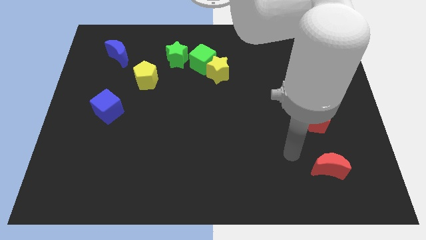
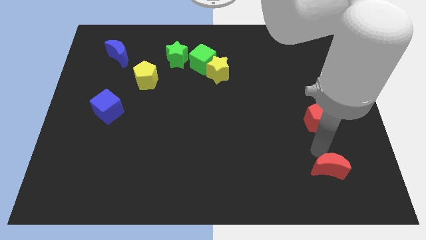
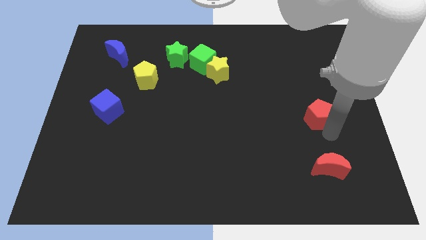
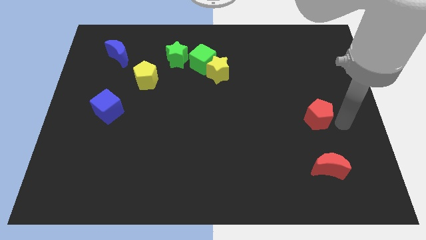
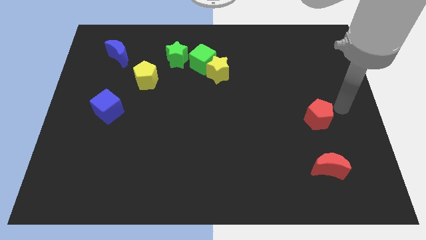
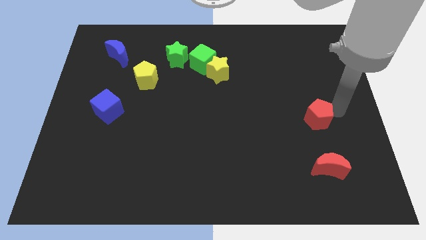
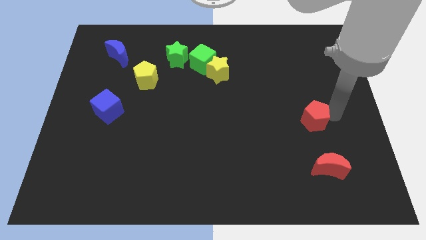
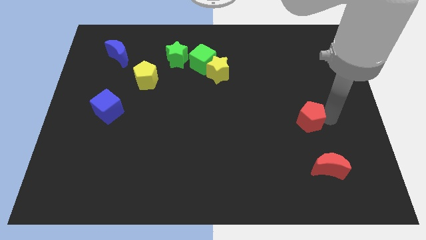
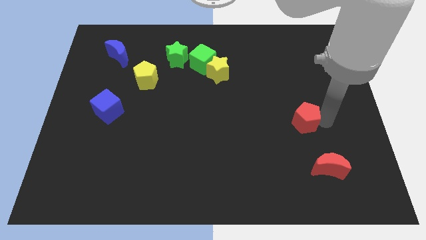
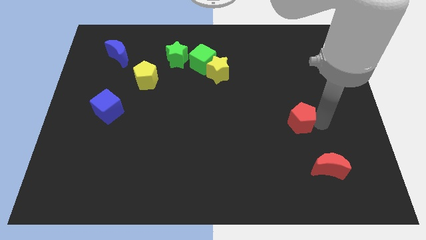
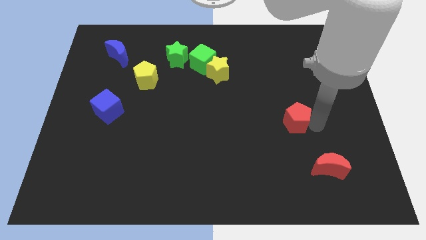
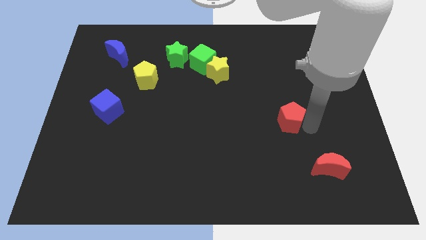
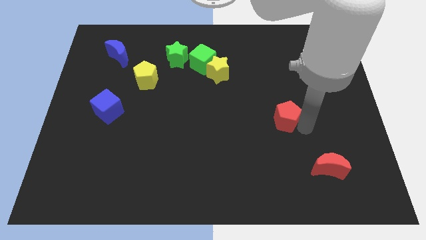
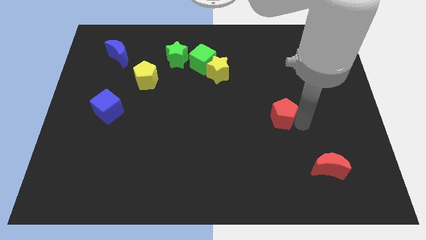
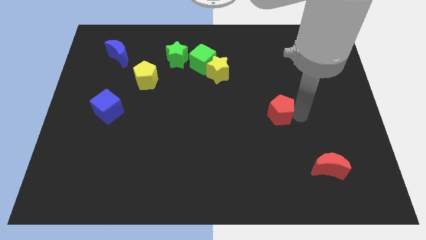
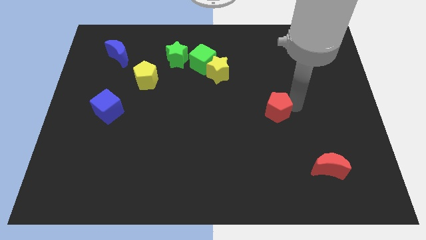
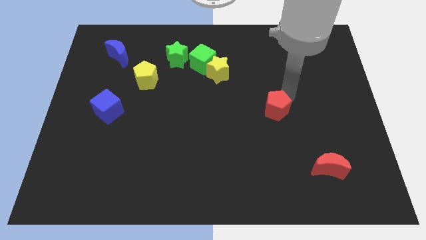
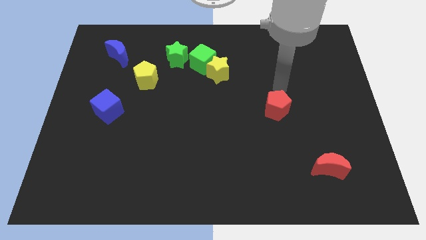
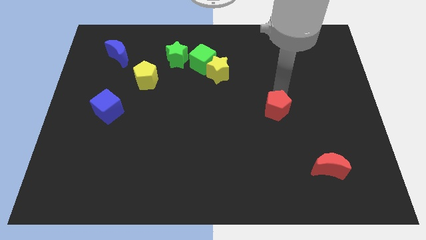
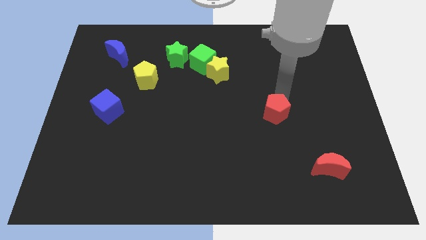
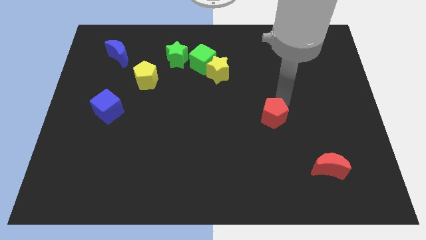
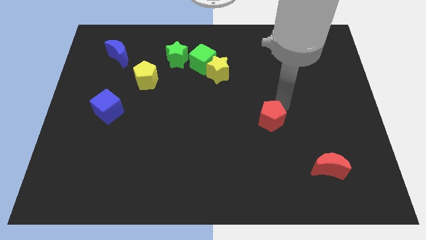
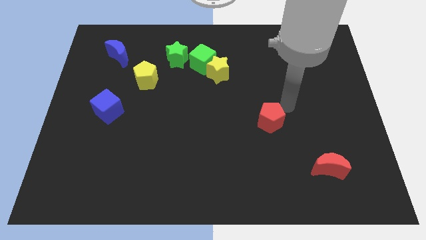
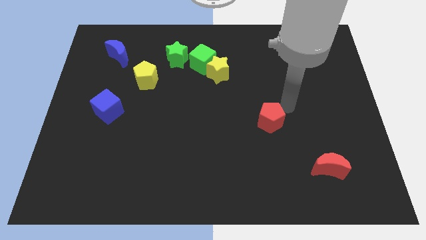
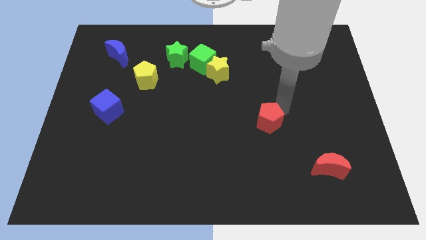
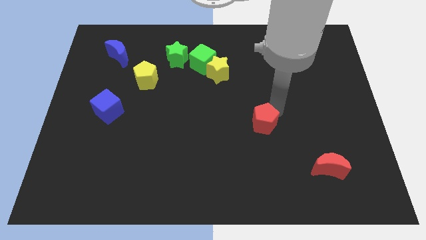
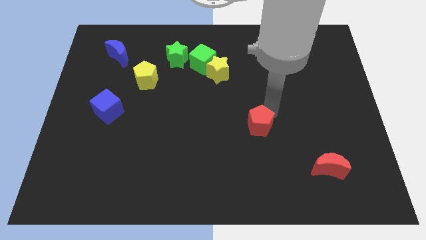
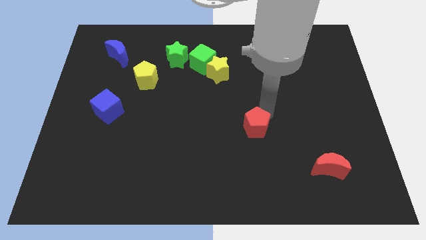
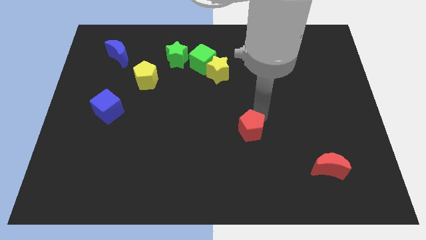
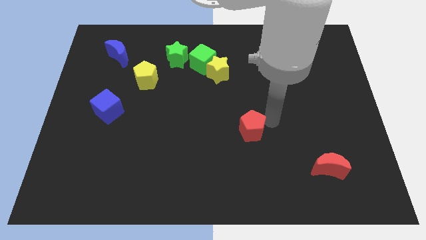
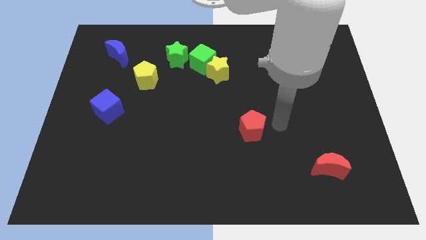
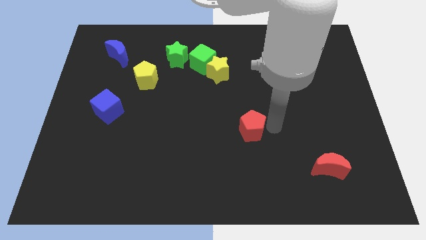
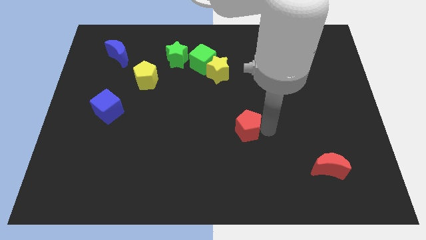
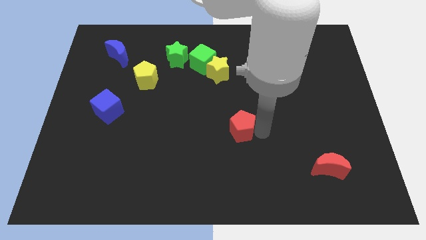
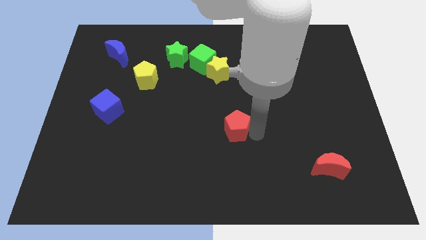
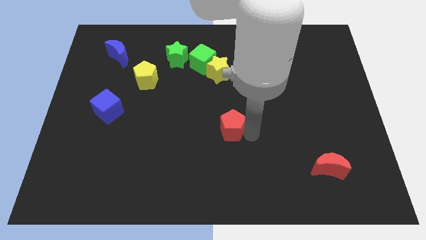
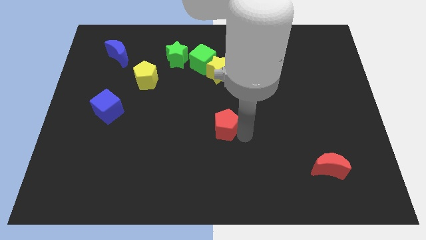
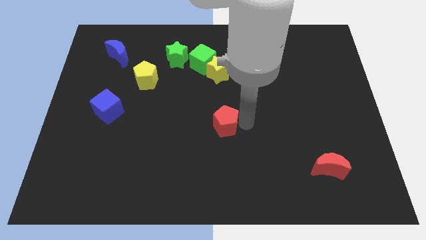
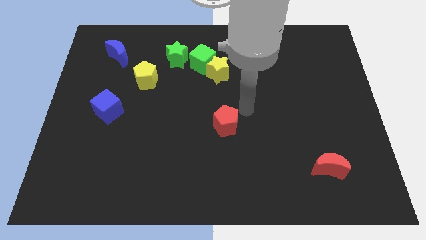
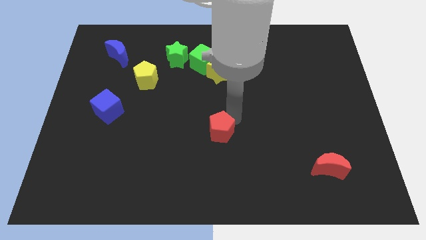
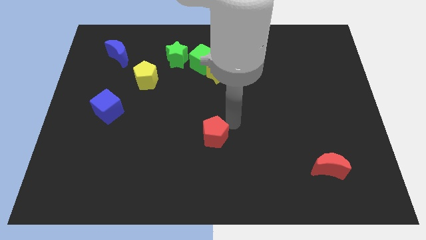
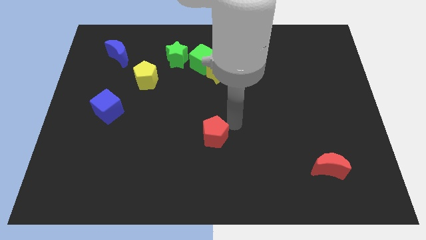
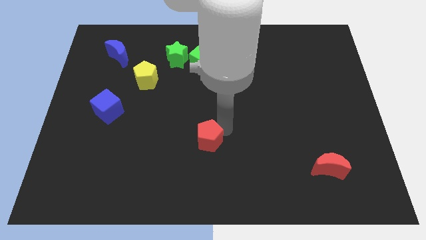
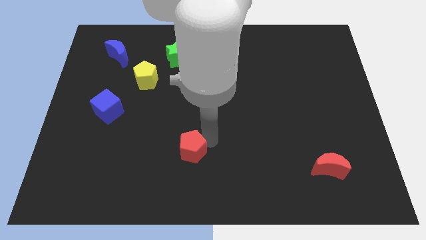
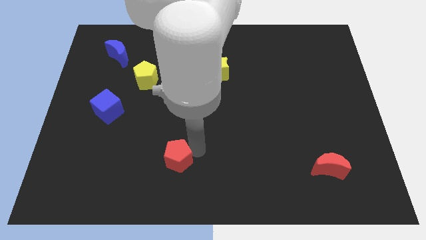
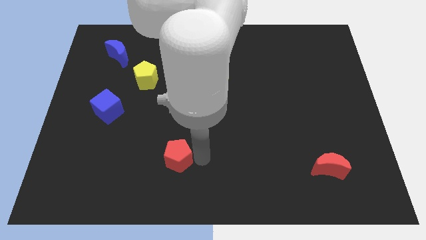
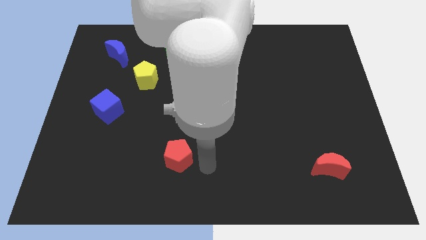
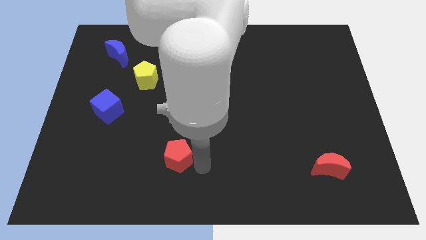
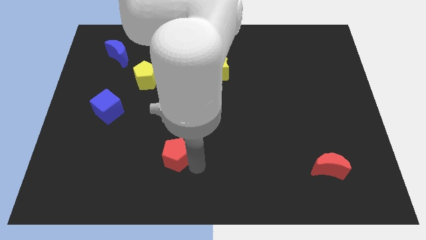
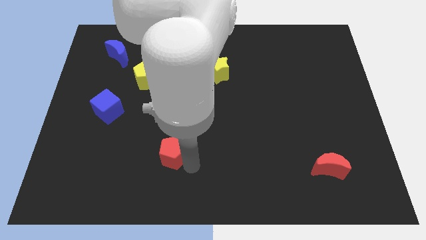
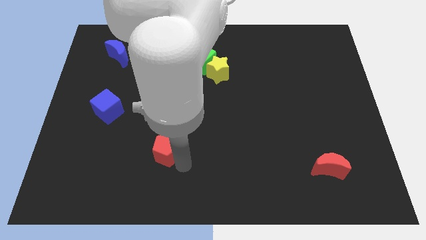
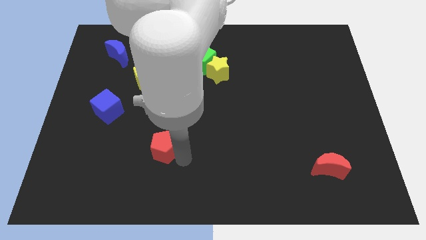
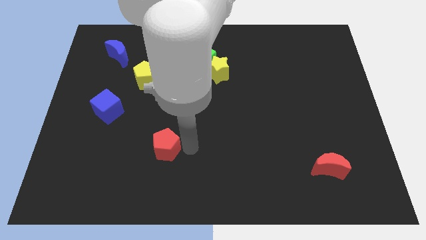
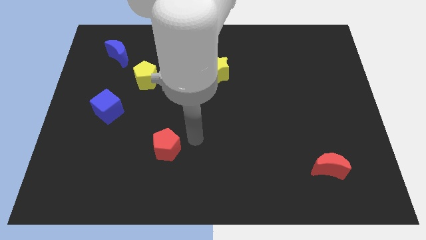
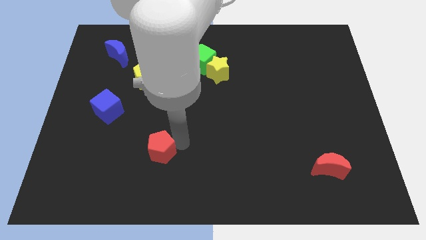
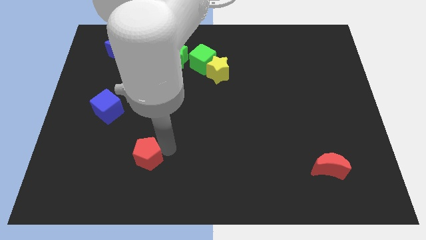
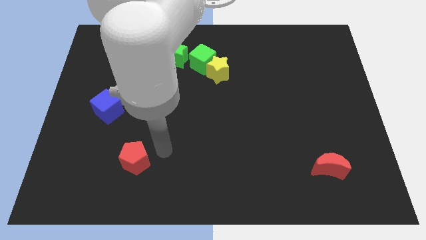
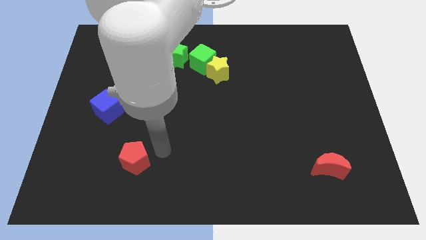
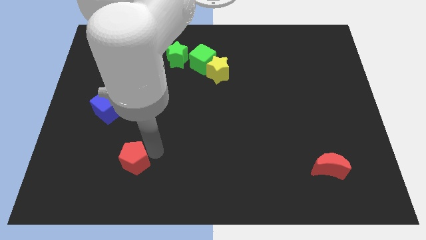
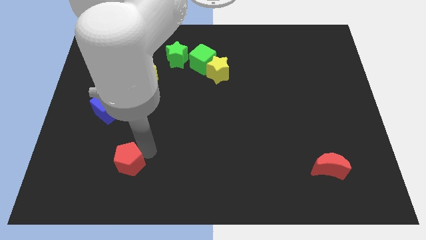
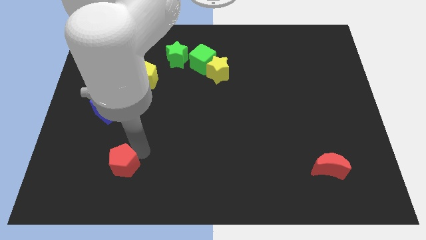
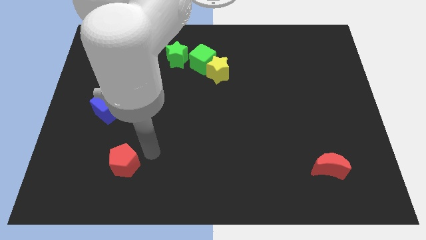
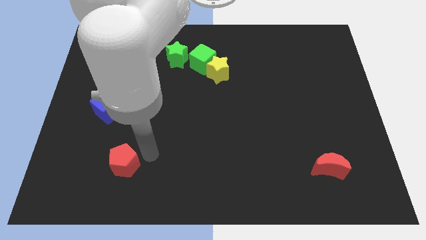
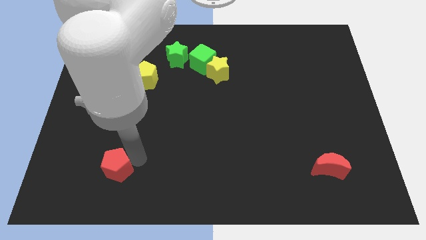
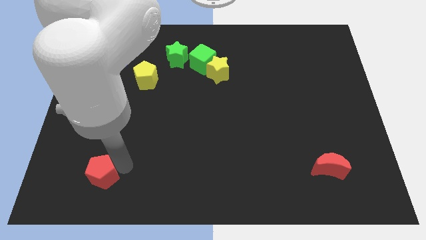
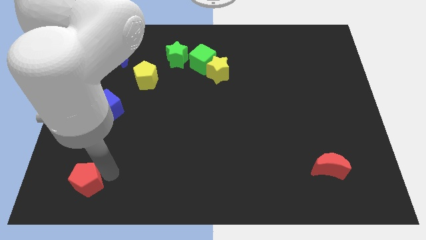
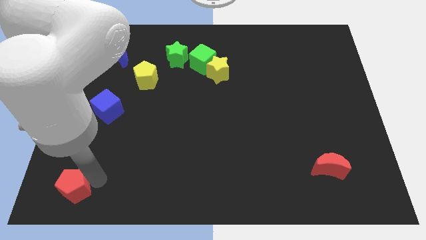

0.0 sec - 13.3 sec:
push the red pentagon to the bottom left of the board
